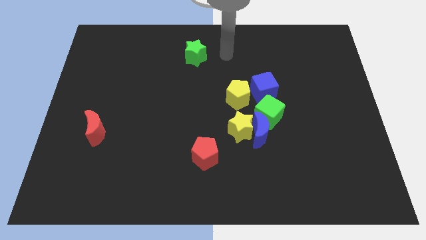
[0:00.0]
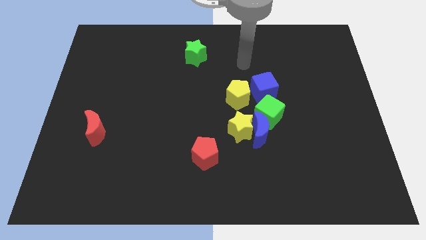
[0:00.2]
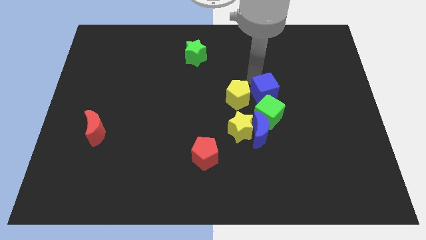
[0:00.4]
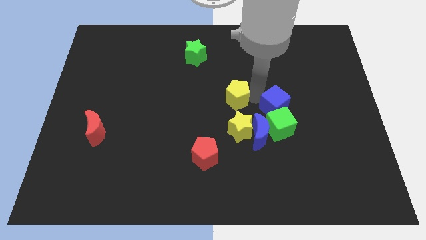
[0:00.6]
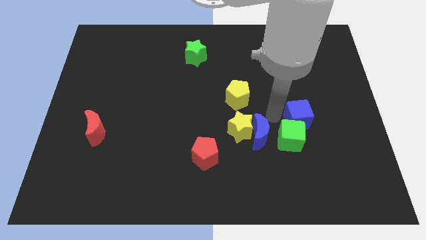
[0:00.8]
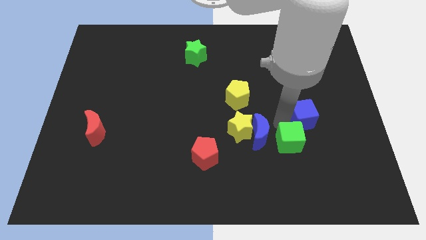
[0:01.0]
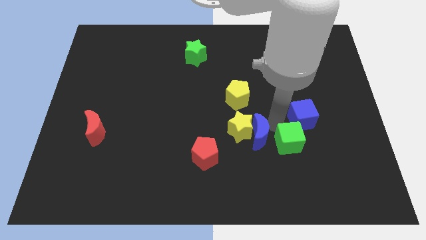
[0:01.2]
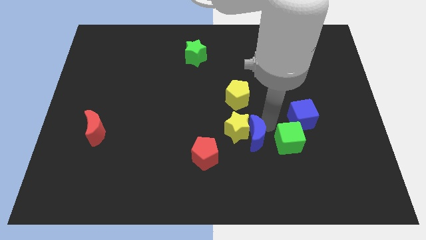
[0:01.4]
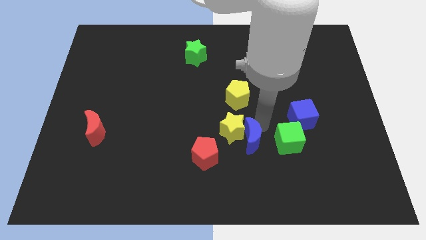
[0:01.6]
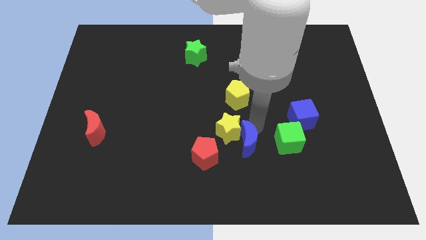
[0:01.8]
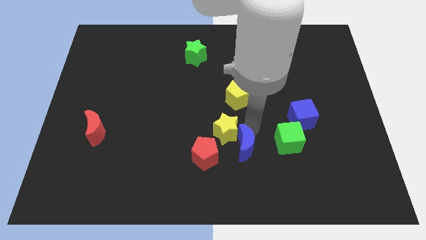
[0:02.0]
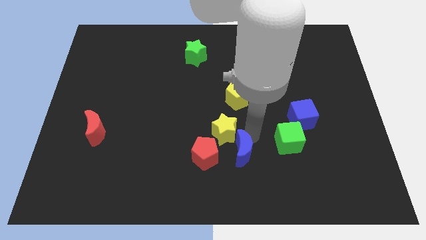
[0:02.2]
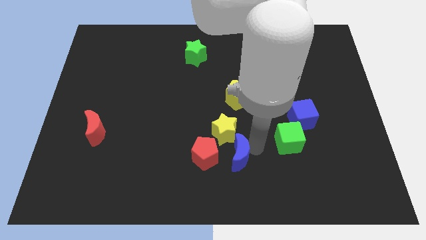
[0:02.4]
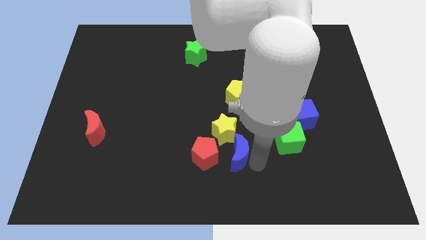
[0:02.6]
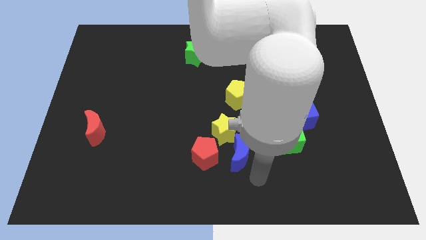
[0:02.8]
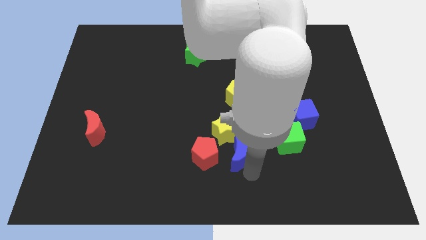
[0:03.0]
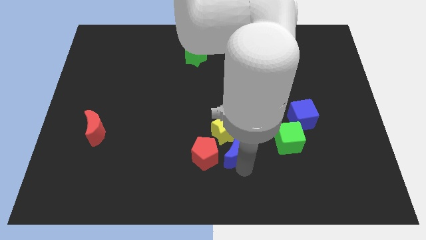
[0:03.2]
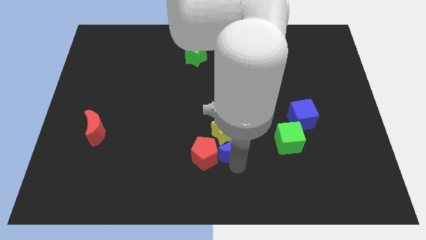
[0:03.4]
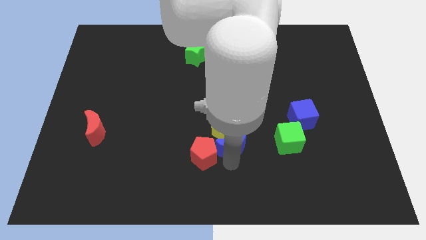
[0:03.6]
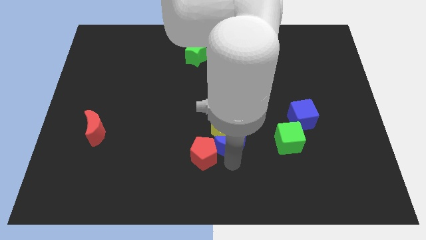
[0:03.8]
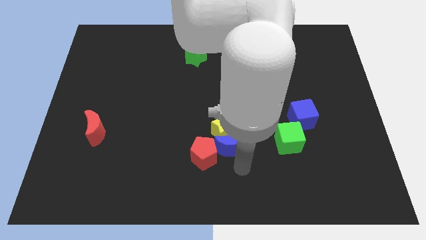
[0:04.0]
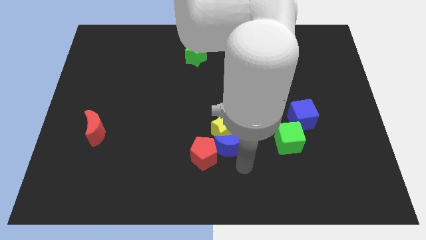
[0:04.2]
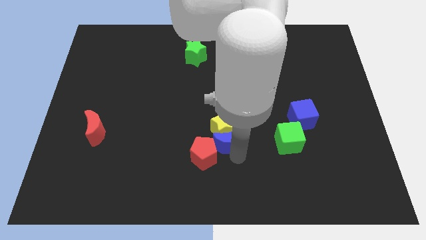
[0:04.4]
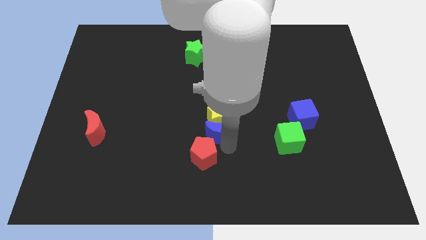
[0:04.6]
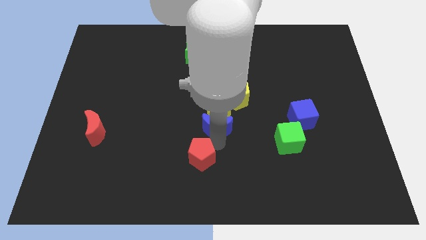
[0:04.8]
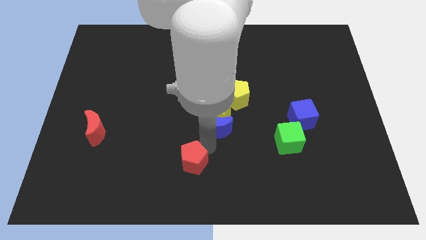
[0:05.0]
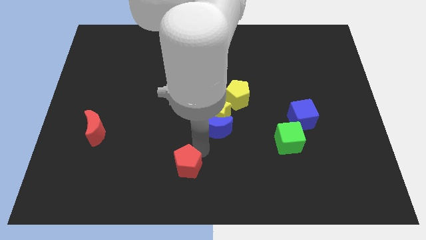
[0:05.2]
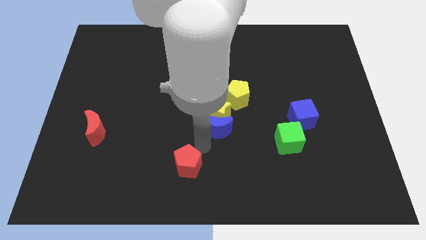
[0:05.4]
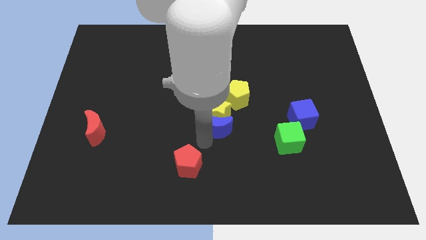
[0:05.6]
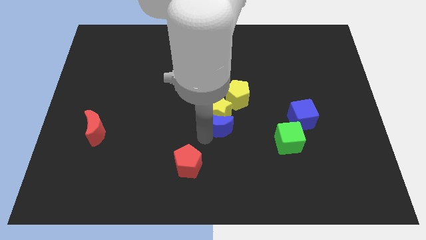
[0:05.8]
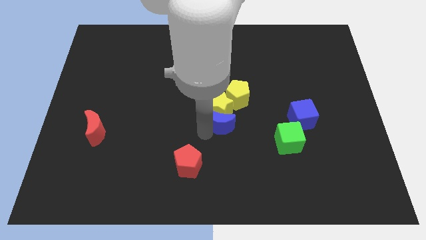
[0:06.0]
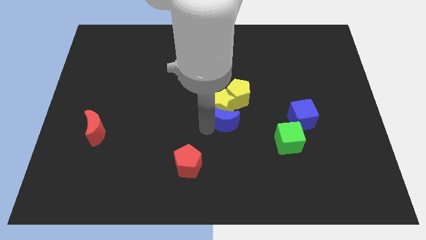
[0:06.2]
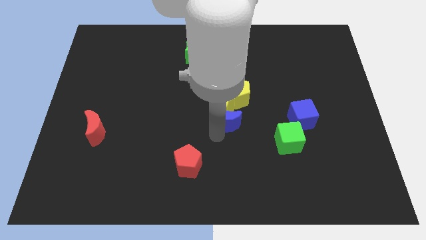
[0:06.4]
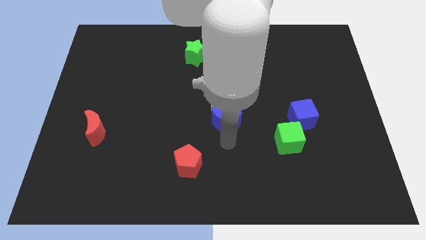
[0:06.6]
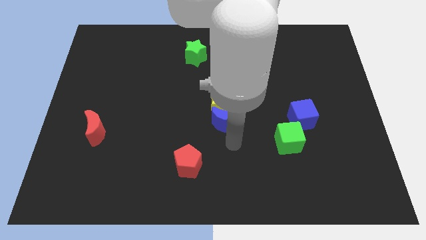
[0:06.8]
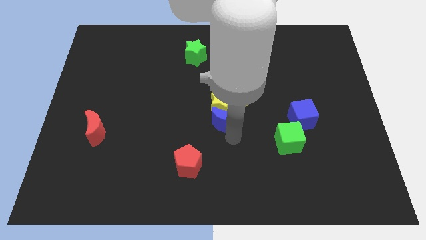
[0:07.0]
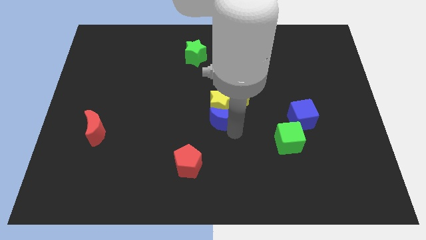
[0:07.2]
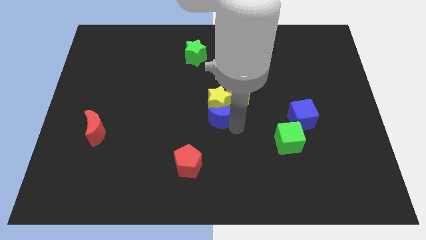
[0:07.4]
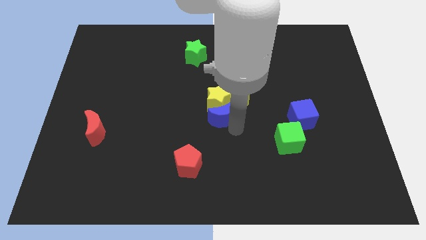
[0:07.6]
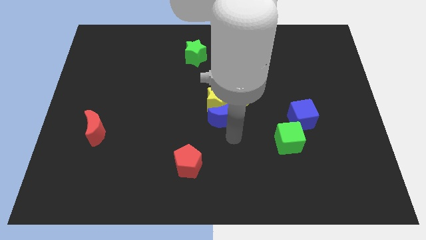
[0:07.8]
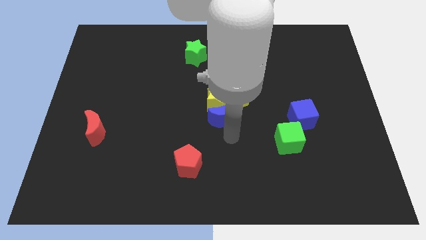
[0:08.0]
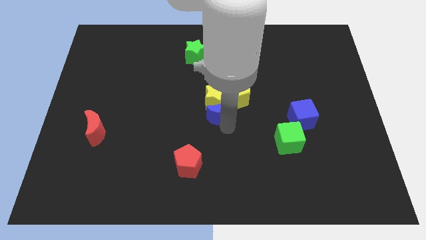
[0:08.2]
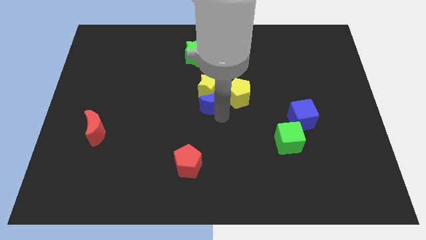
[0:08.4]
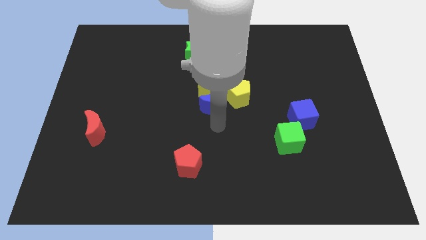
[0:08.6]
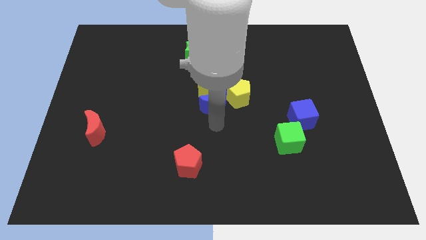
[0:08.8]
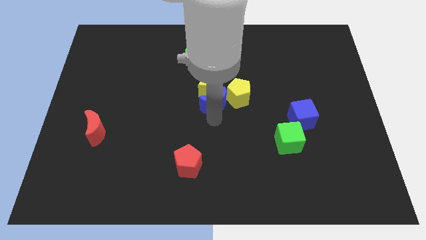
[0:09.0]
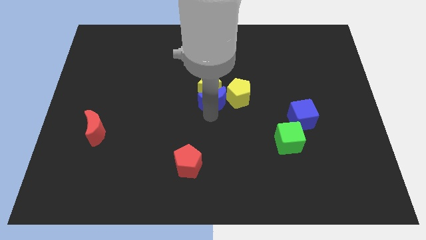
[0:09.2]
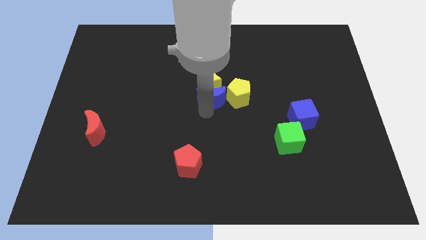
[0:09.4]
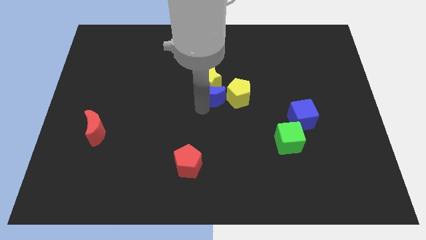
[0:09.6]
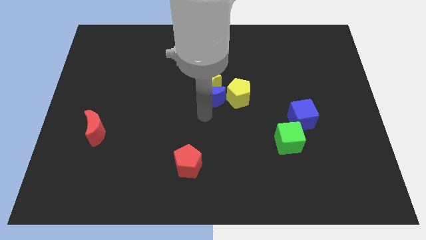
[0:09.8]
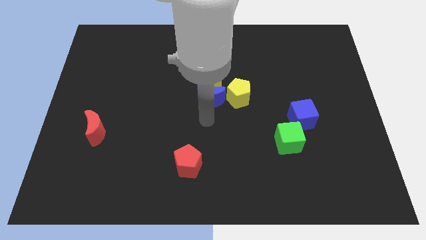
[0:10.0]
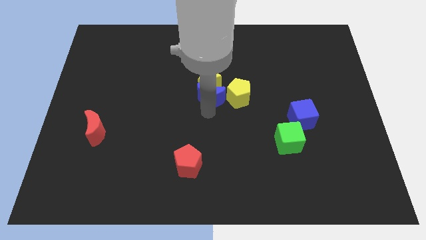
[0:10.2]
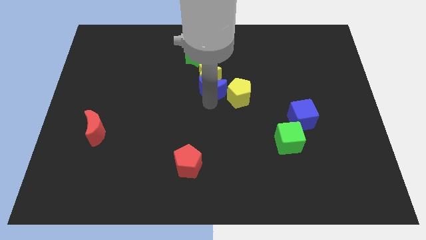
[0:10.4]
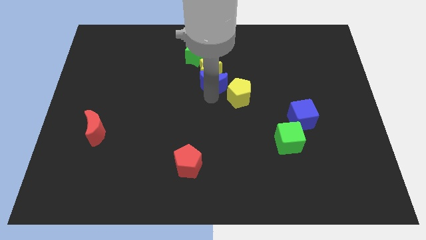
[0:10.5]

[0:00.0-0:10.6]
push the blue moon diagonally down and to the right of the green star

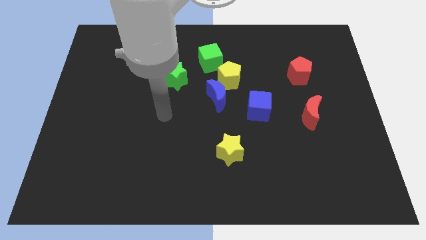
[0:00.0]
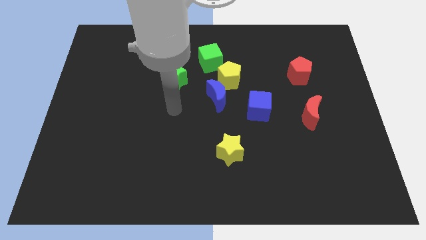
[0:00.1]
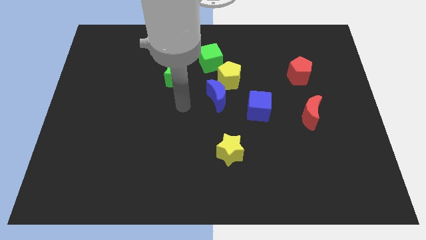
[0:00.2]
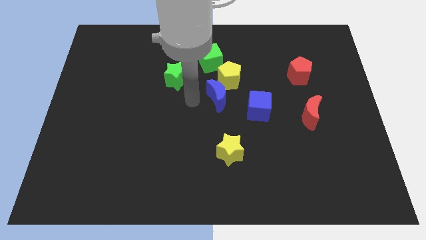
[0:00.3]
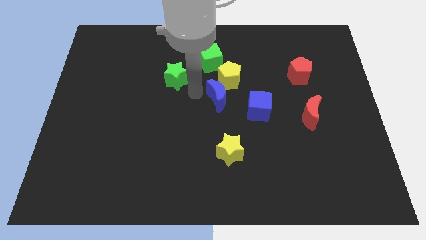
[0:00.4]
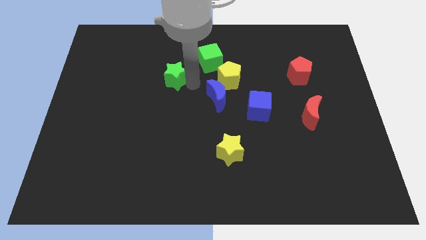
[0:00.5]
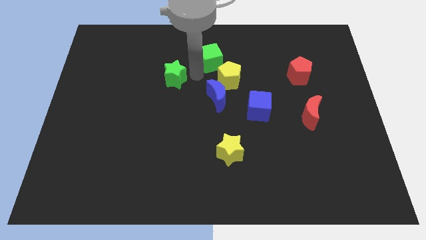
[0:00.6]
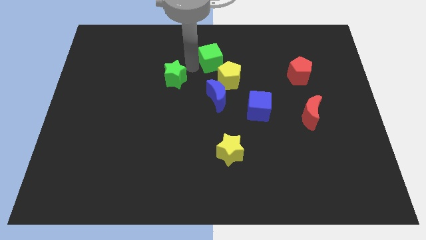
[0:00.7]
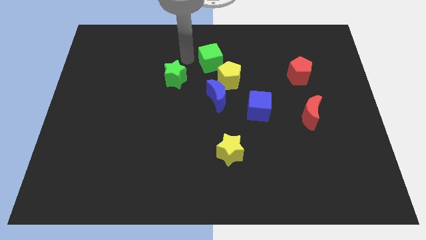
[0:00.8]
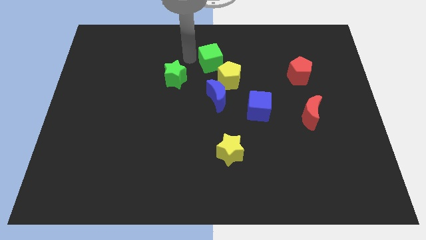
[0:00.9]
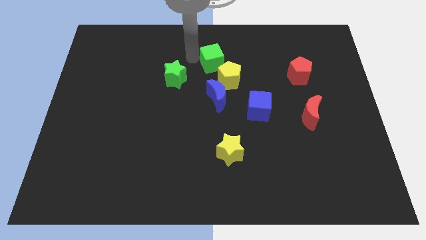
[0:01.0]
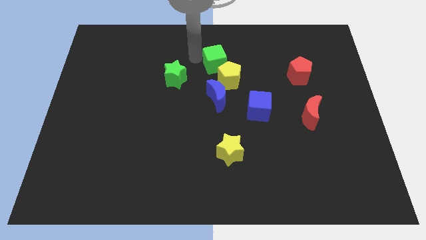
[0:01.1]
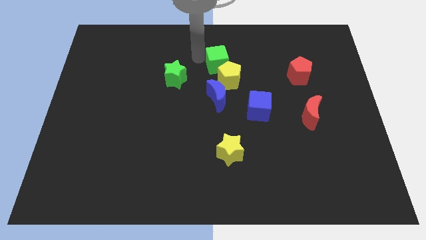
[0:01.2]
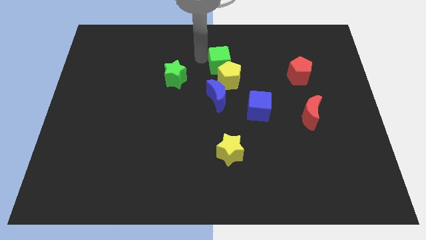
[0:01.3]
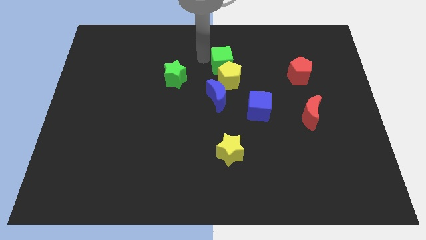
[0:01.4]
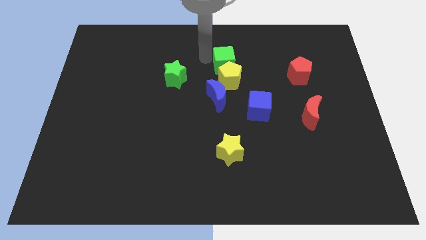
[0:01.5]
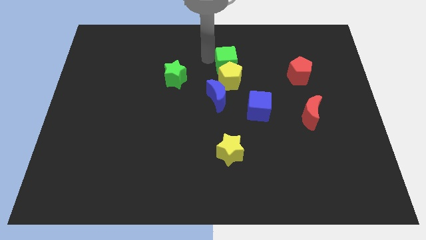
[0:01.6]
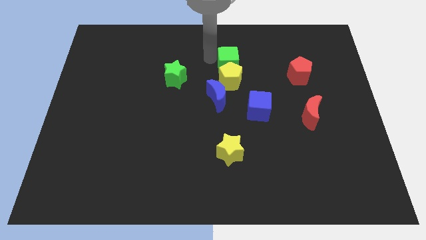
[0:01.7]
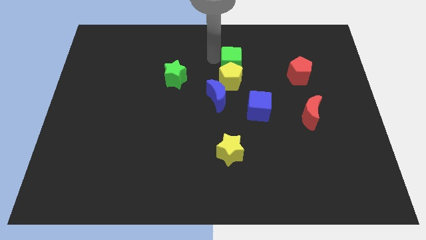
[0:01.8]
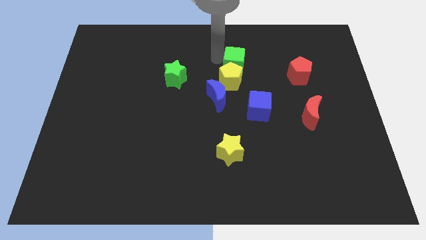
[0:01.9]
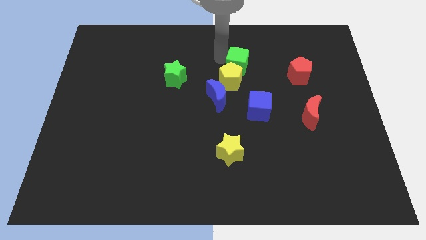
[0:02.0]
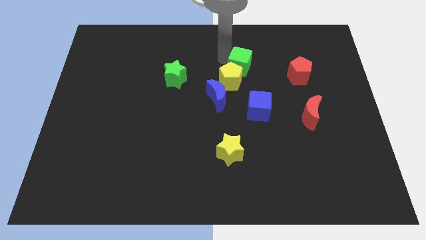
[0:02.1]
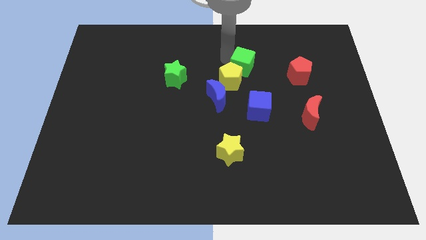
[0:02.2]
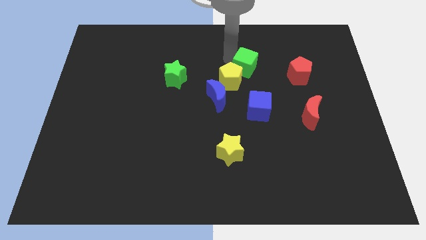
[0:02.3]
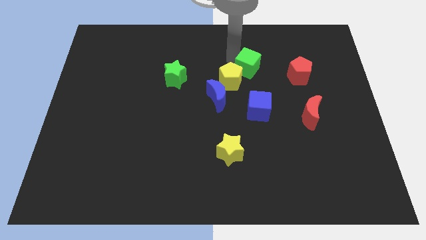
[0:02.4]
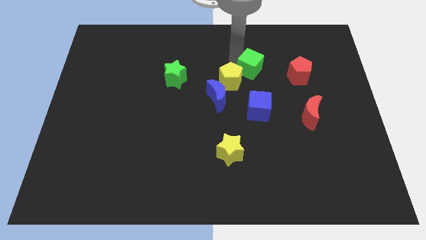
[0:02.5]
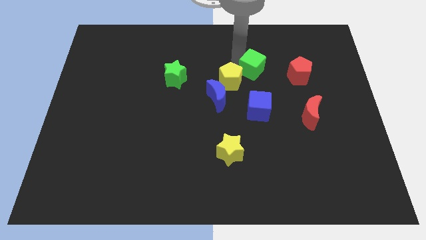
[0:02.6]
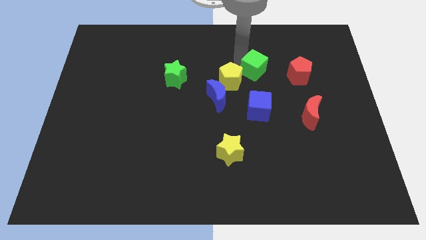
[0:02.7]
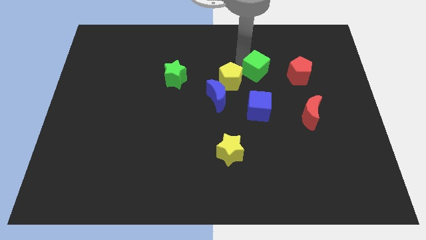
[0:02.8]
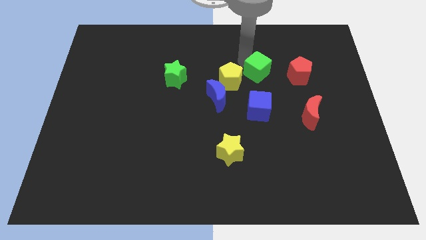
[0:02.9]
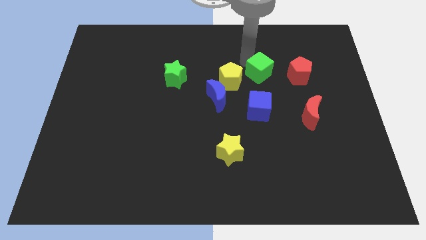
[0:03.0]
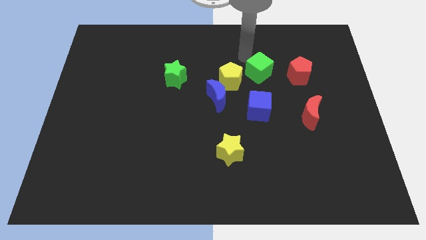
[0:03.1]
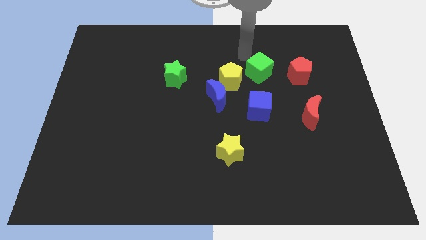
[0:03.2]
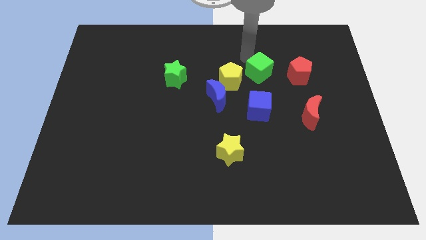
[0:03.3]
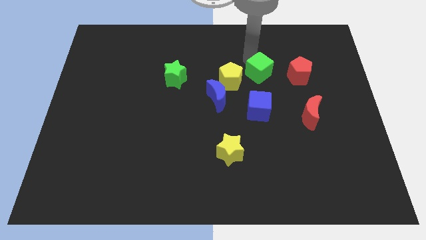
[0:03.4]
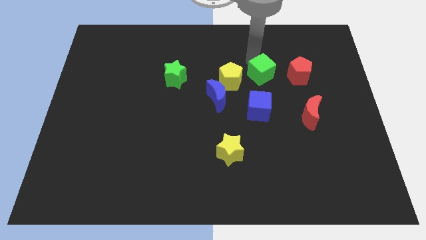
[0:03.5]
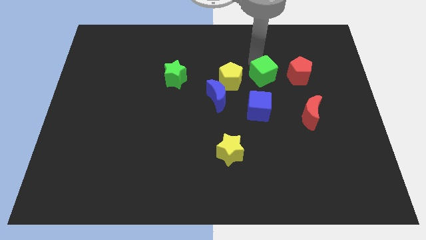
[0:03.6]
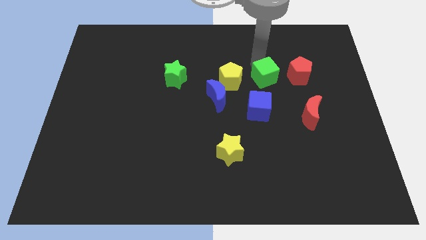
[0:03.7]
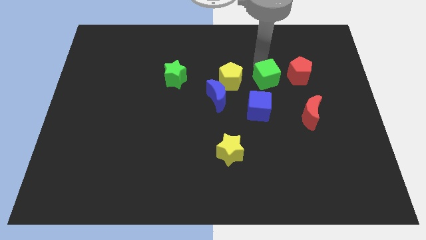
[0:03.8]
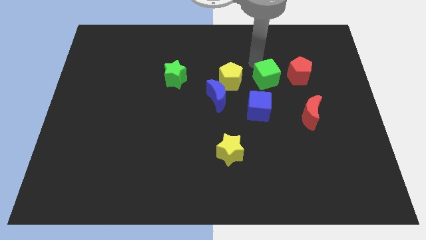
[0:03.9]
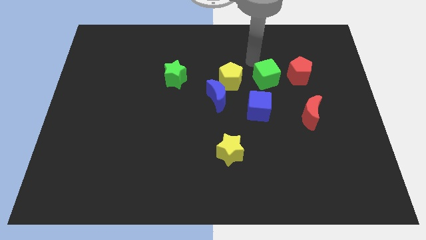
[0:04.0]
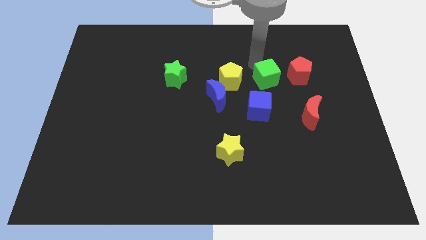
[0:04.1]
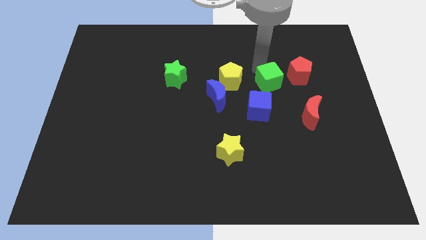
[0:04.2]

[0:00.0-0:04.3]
move the green cube diagonally up and to the right of the blue cube
